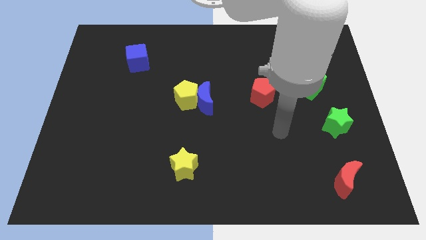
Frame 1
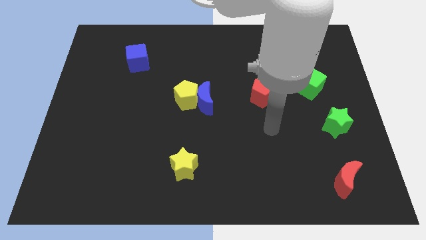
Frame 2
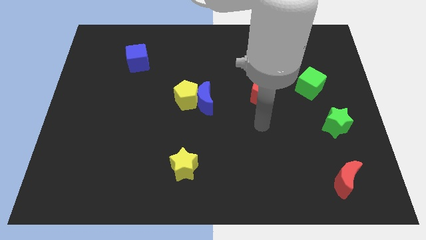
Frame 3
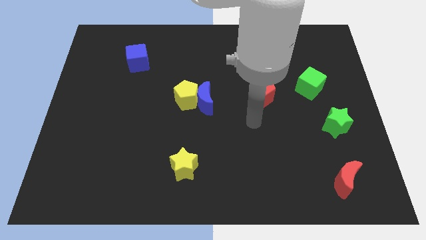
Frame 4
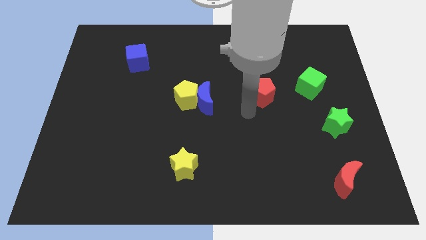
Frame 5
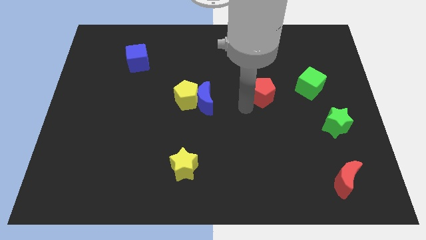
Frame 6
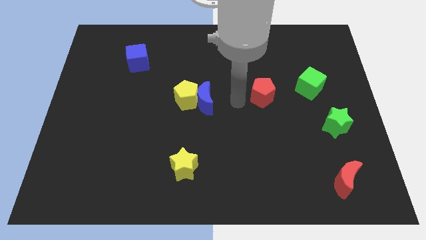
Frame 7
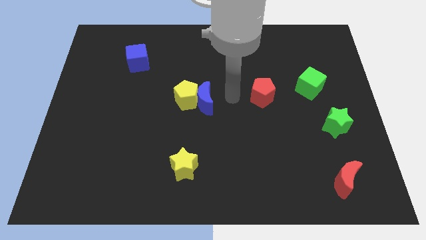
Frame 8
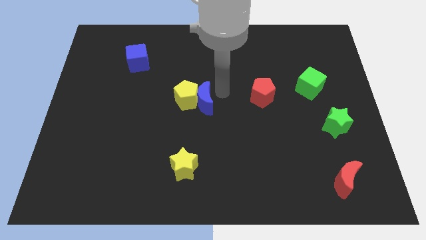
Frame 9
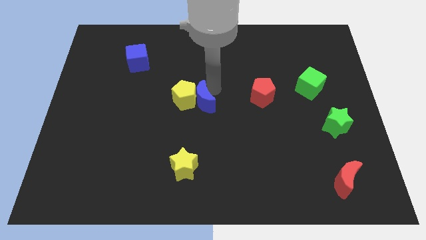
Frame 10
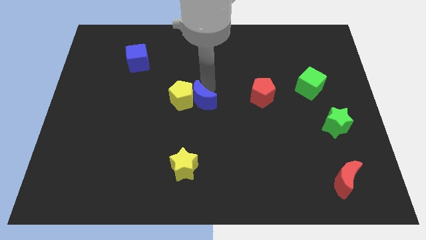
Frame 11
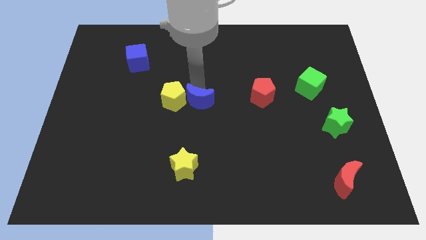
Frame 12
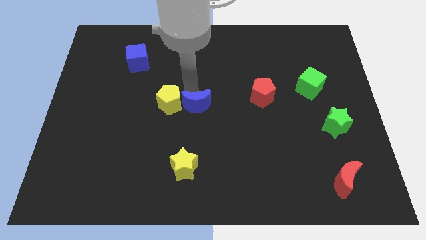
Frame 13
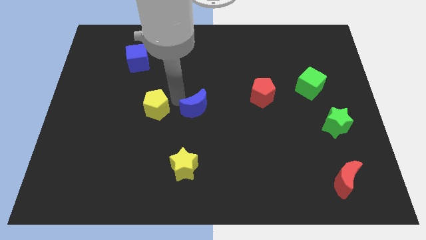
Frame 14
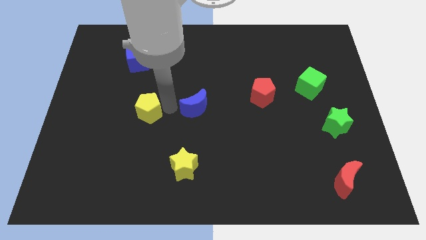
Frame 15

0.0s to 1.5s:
separate the blue moon from the yellow pentagon

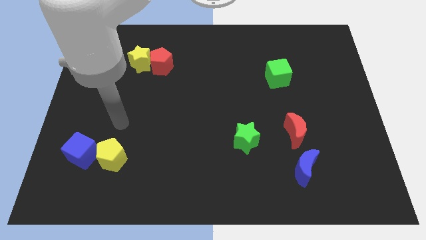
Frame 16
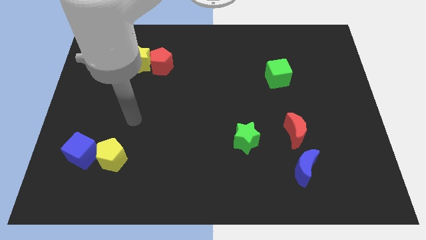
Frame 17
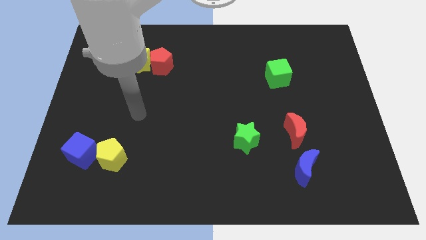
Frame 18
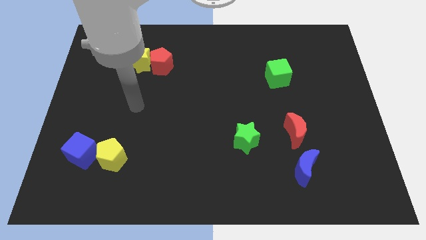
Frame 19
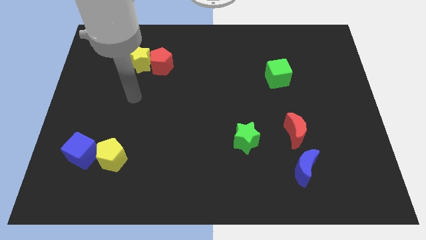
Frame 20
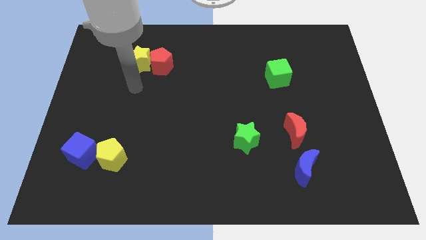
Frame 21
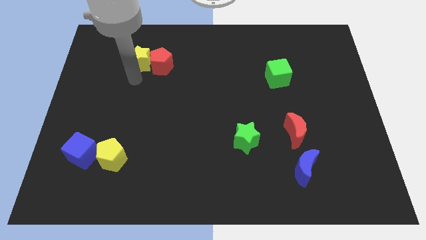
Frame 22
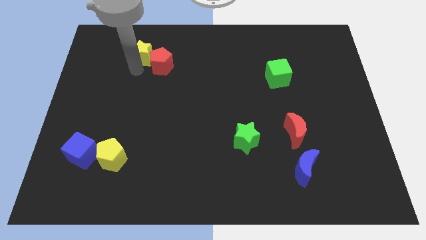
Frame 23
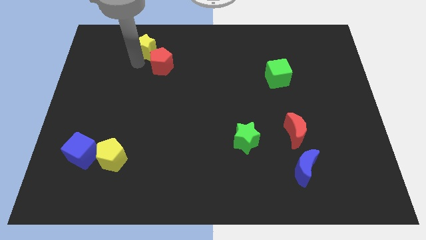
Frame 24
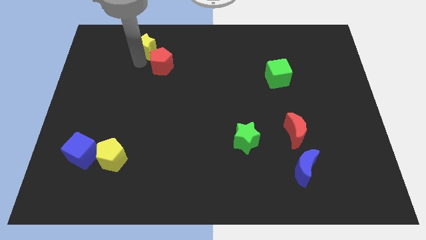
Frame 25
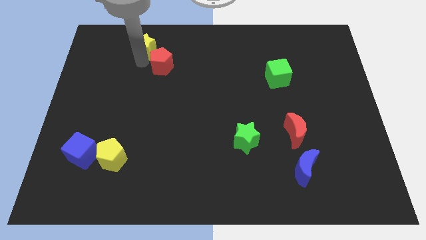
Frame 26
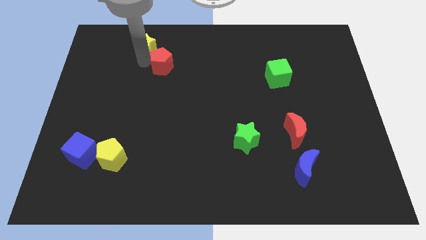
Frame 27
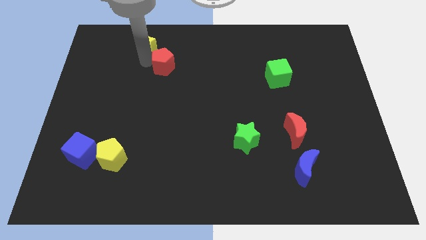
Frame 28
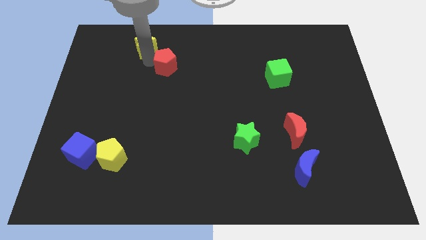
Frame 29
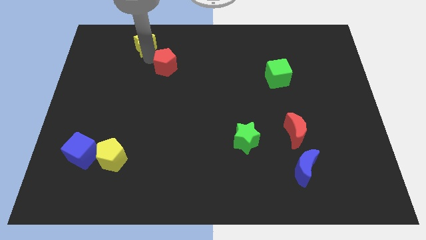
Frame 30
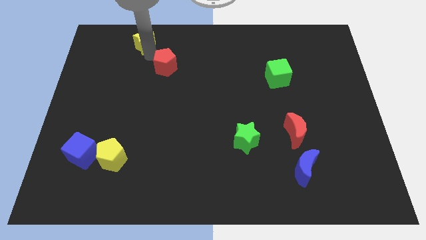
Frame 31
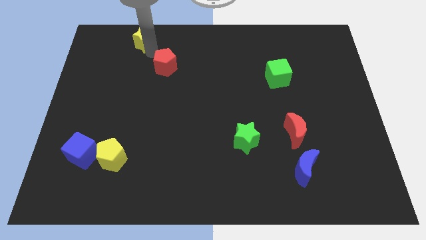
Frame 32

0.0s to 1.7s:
pull the red pentagon apart from the yellow star

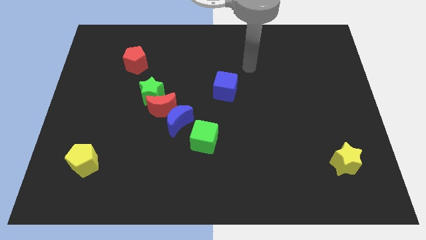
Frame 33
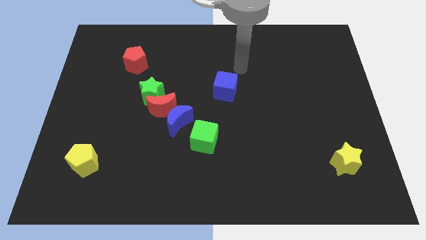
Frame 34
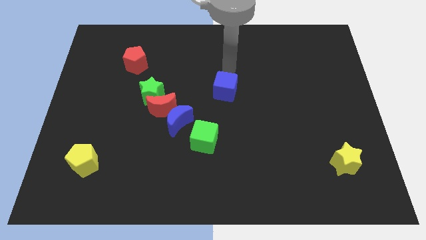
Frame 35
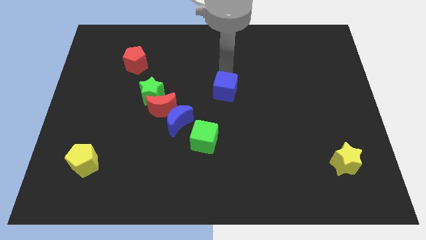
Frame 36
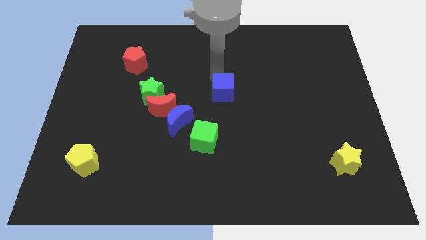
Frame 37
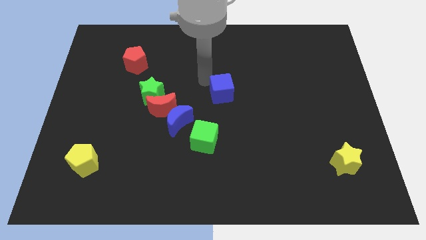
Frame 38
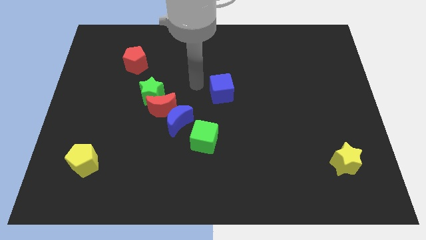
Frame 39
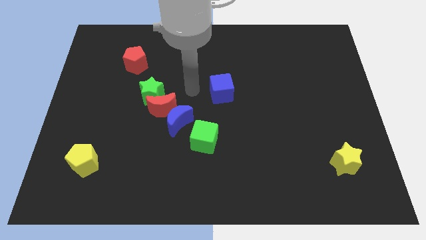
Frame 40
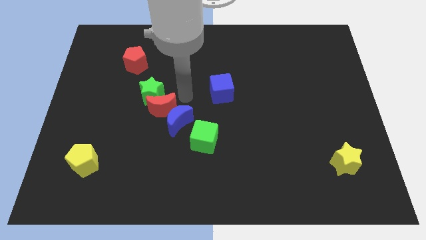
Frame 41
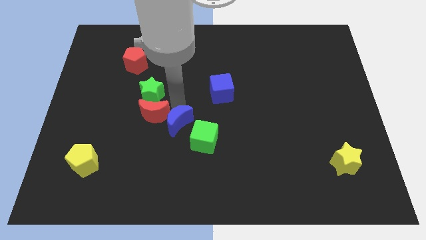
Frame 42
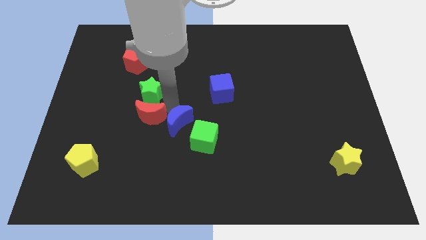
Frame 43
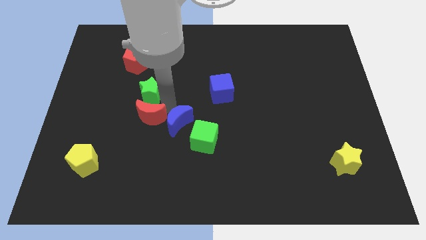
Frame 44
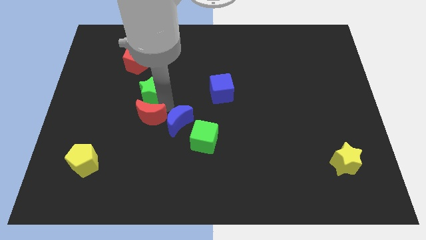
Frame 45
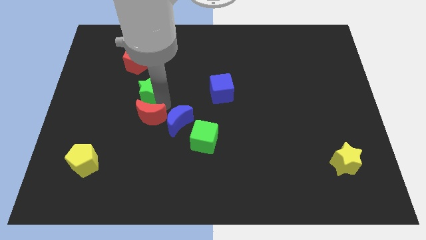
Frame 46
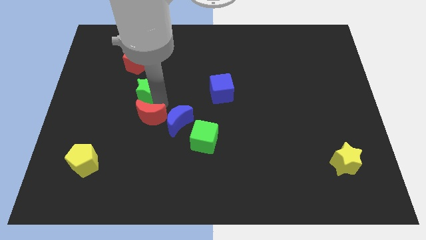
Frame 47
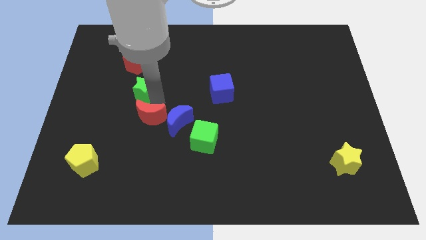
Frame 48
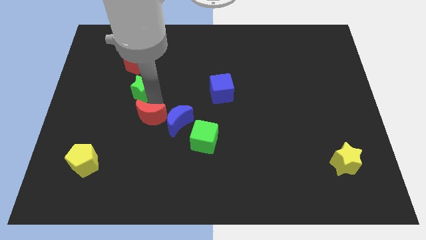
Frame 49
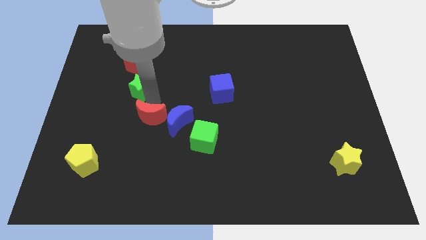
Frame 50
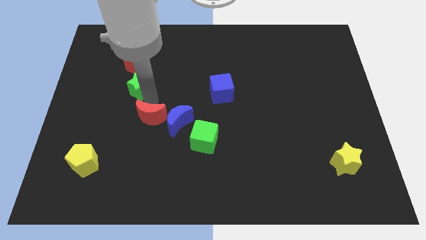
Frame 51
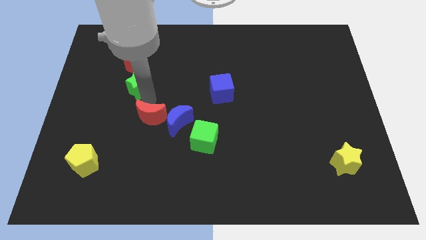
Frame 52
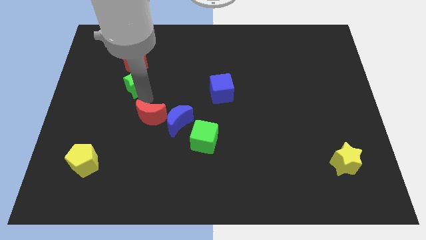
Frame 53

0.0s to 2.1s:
move the green star away from the red moon

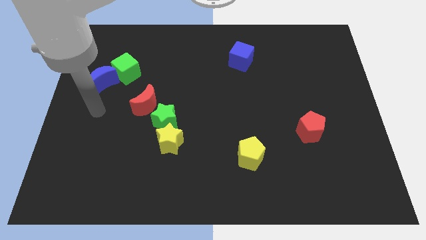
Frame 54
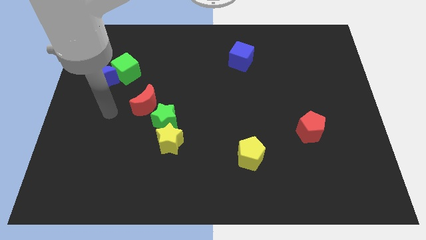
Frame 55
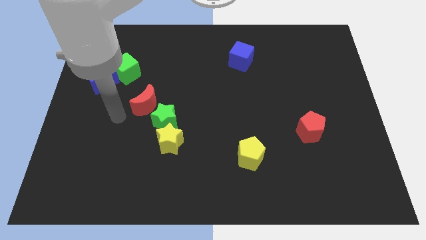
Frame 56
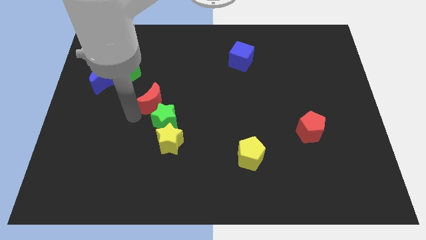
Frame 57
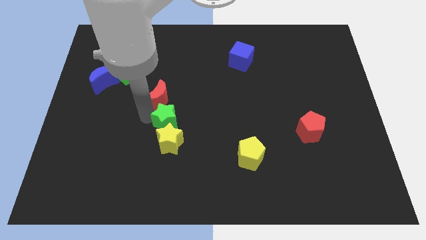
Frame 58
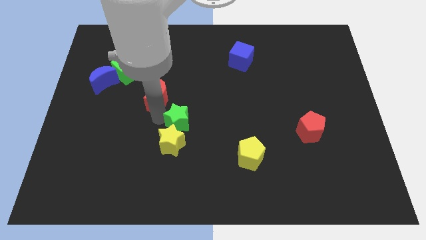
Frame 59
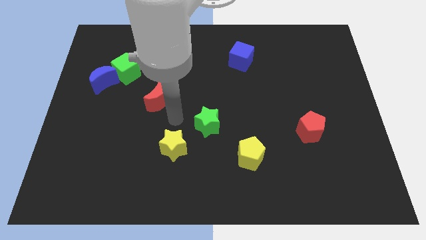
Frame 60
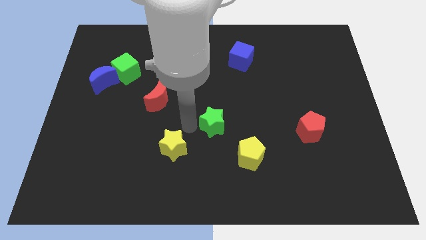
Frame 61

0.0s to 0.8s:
pull the yellow star apart from the green star

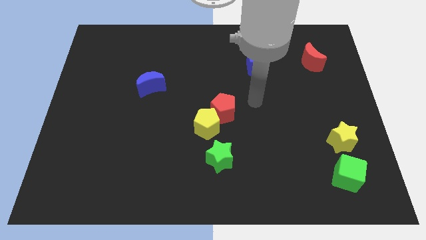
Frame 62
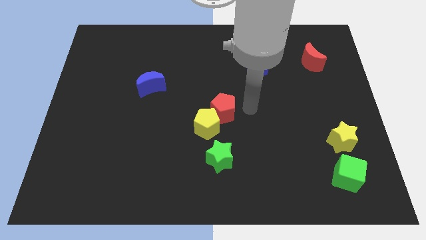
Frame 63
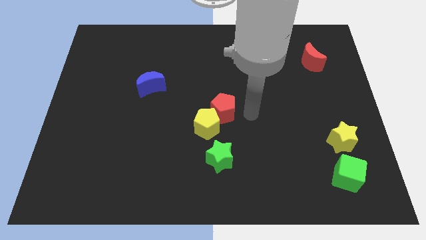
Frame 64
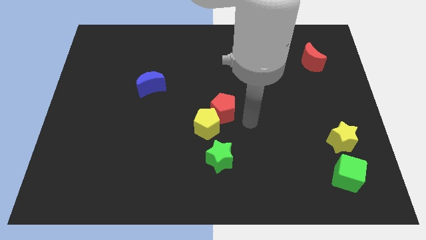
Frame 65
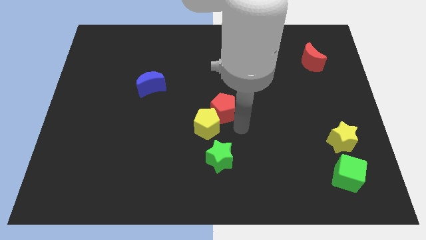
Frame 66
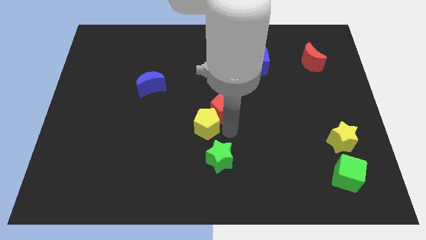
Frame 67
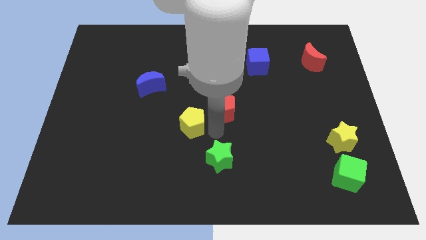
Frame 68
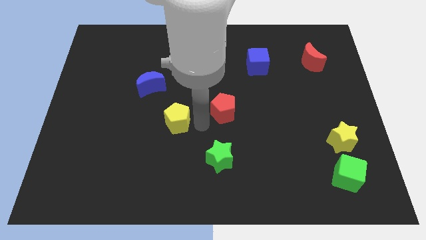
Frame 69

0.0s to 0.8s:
pull the red pentagon apart from the yellow pentagon

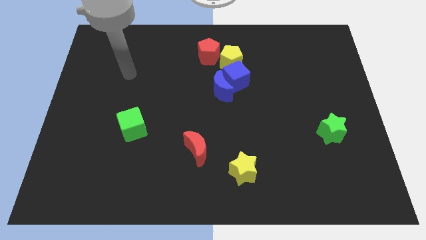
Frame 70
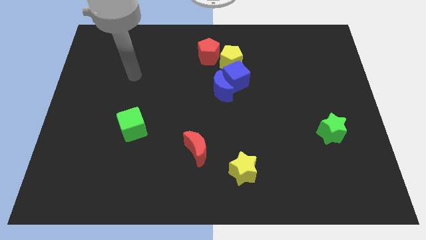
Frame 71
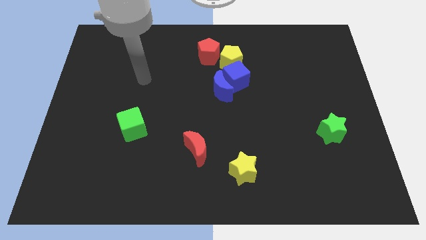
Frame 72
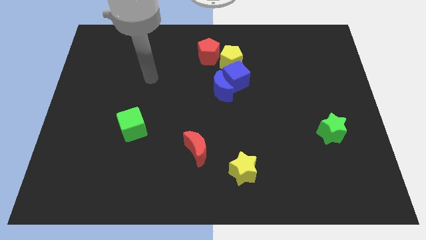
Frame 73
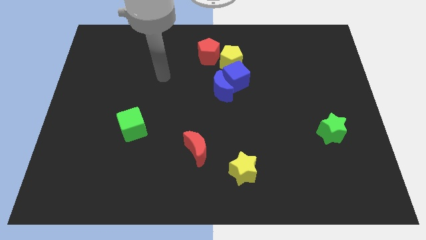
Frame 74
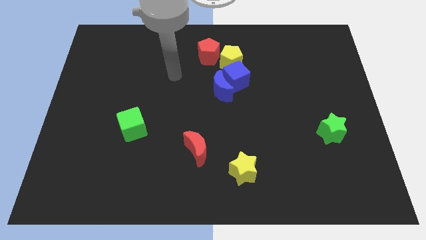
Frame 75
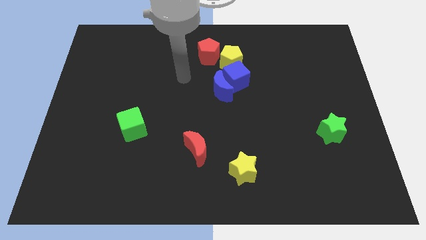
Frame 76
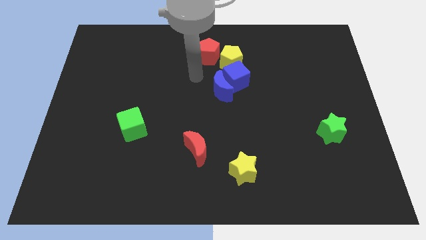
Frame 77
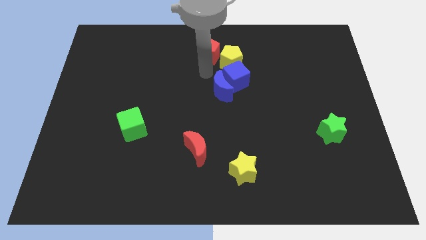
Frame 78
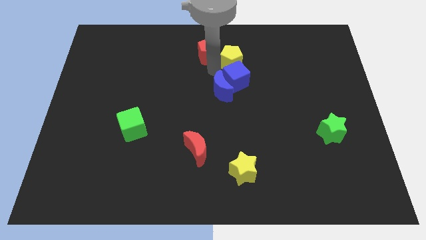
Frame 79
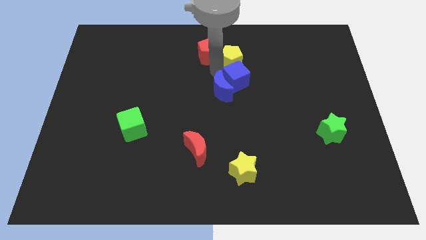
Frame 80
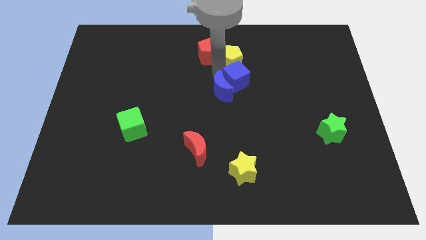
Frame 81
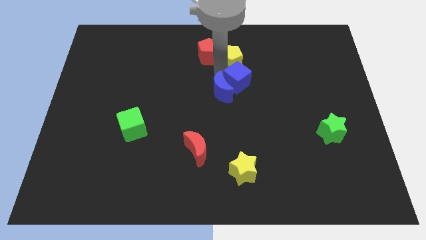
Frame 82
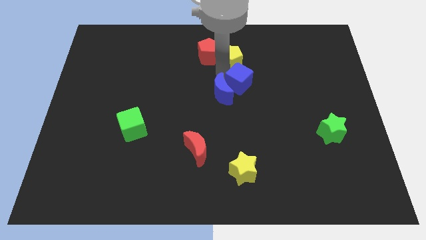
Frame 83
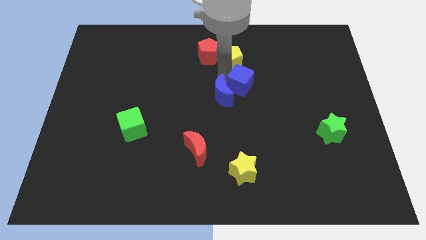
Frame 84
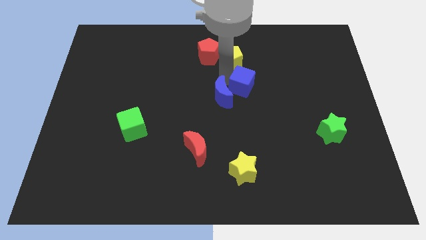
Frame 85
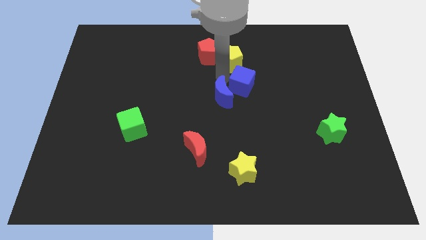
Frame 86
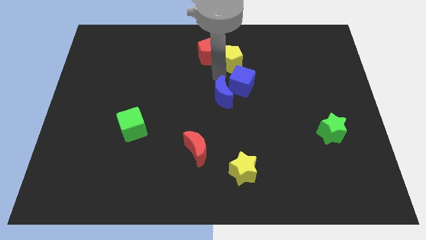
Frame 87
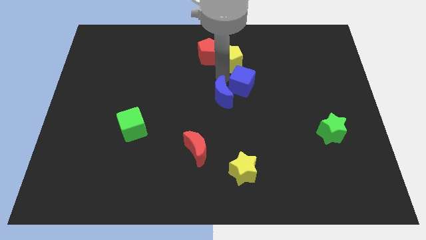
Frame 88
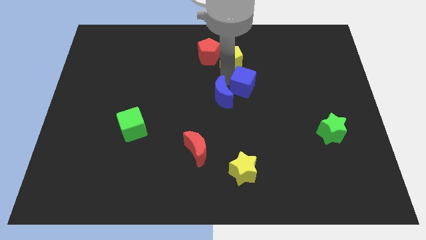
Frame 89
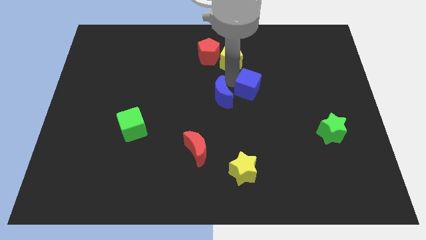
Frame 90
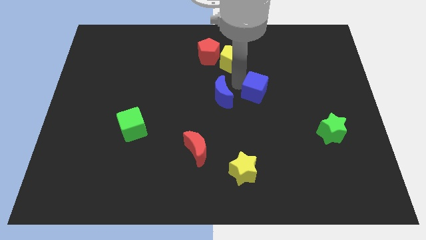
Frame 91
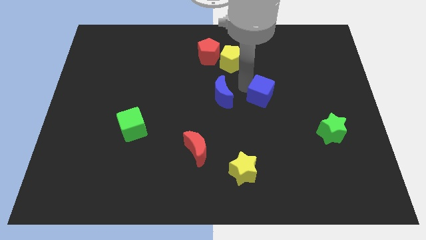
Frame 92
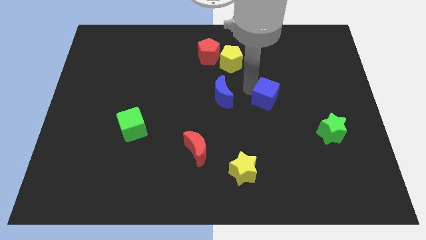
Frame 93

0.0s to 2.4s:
separate the blue cube from the blue moon and yellow pentagon
